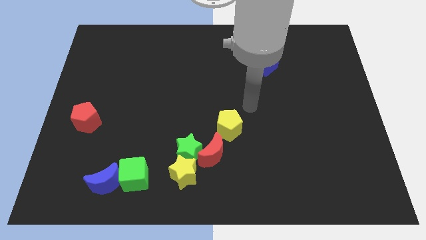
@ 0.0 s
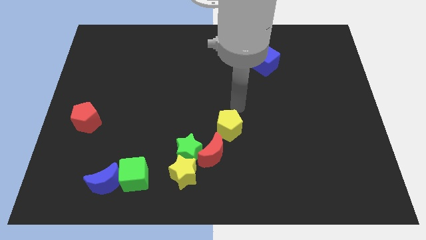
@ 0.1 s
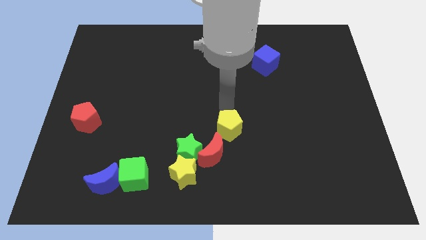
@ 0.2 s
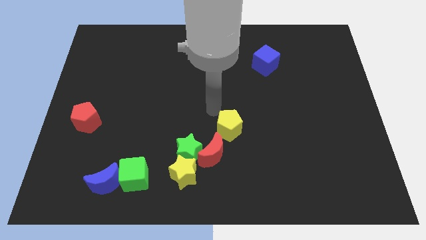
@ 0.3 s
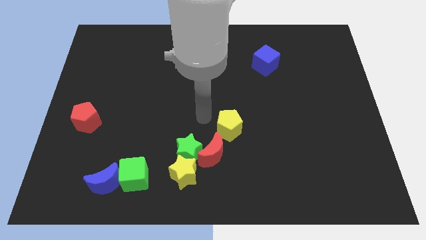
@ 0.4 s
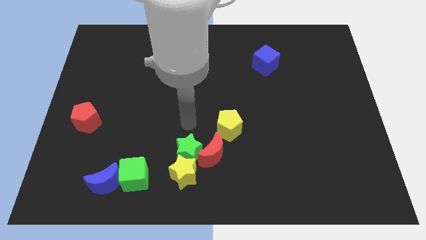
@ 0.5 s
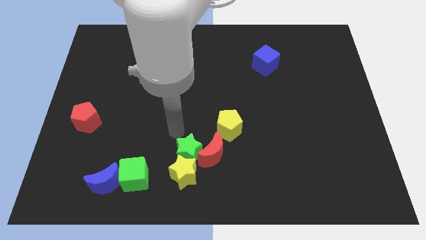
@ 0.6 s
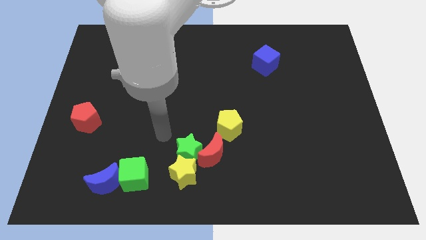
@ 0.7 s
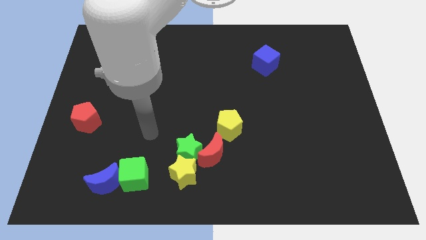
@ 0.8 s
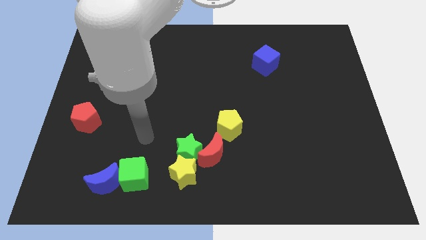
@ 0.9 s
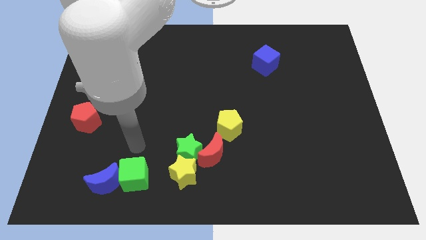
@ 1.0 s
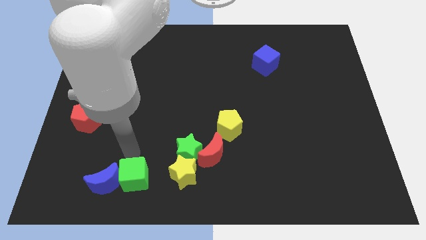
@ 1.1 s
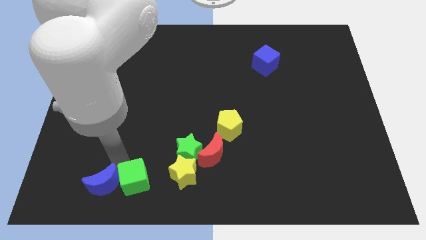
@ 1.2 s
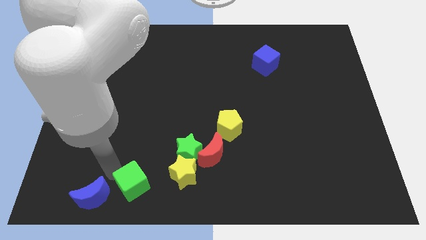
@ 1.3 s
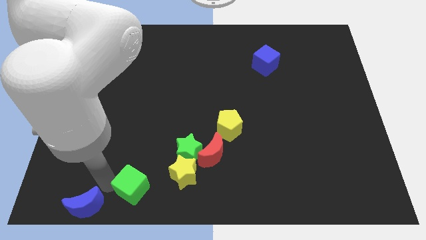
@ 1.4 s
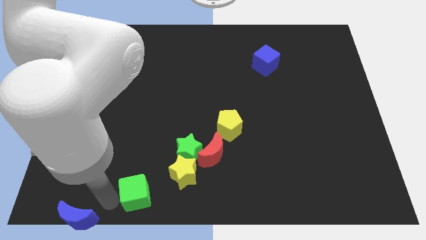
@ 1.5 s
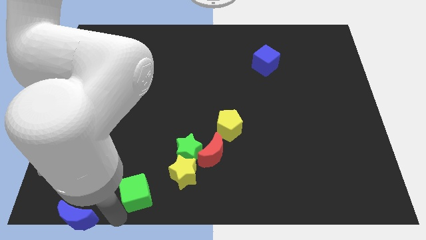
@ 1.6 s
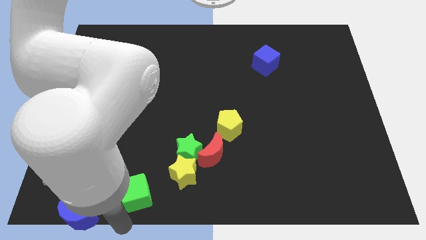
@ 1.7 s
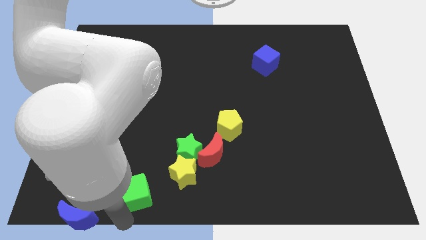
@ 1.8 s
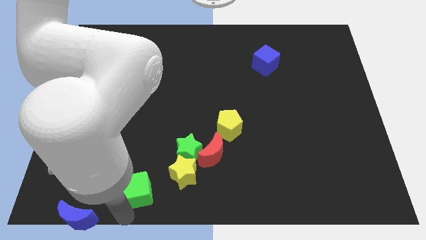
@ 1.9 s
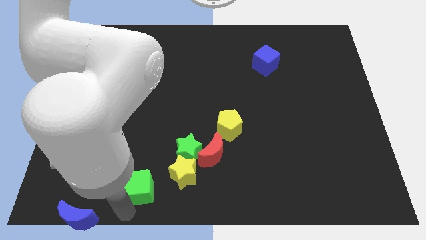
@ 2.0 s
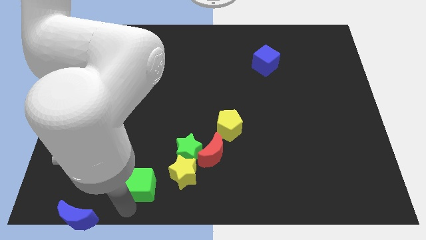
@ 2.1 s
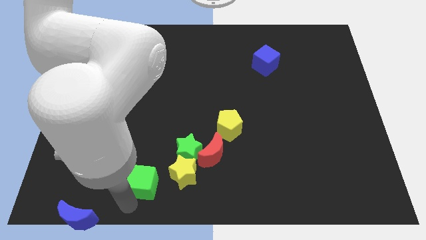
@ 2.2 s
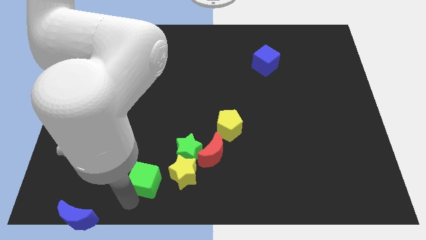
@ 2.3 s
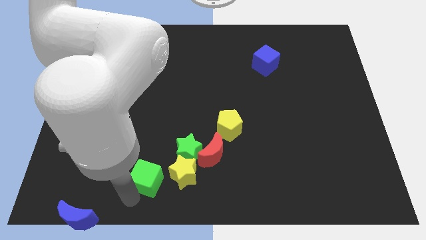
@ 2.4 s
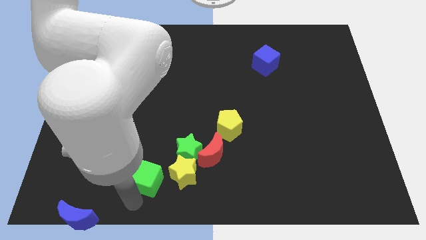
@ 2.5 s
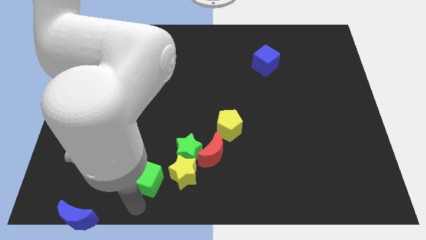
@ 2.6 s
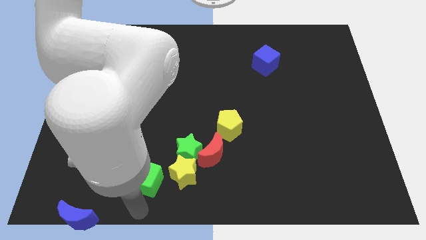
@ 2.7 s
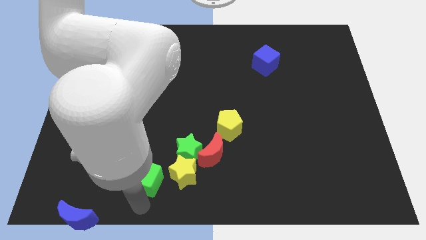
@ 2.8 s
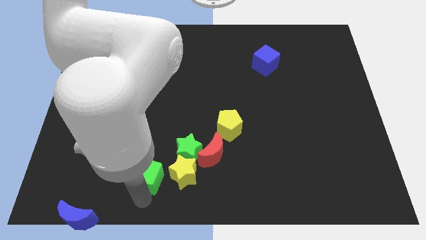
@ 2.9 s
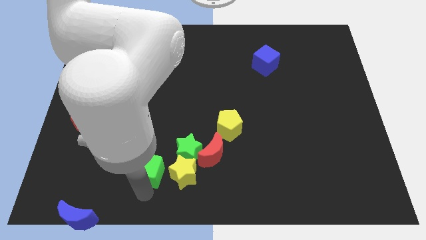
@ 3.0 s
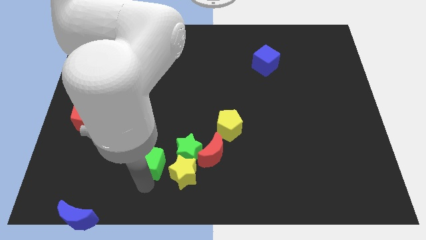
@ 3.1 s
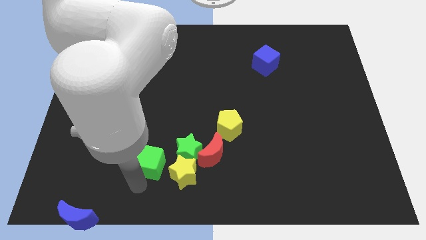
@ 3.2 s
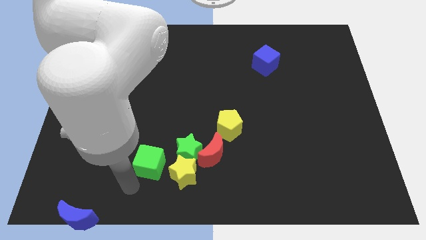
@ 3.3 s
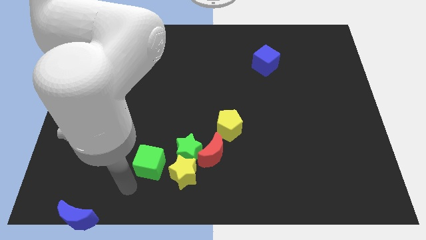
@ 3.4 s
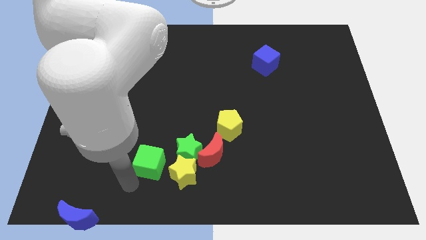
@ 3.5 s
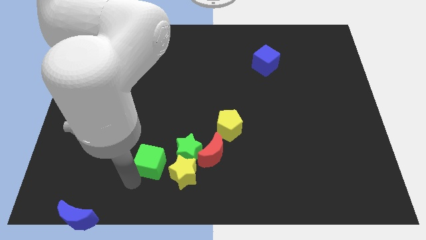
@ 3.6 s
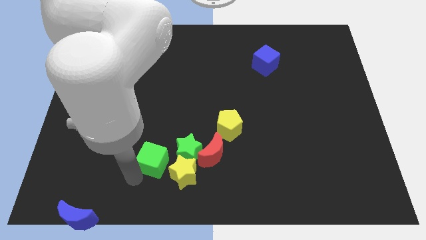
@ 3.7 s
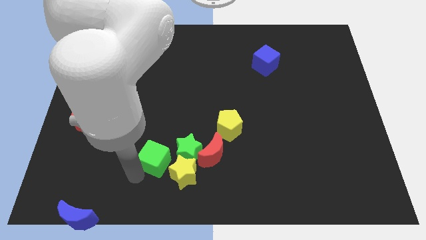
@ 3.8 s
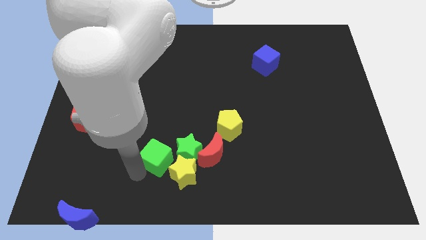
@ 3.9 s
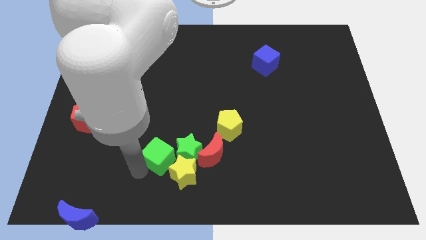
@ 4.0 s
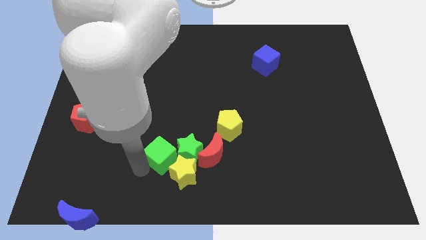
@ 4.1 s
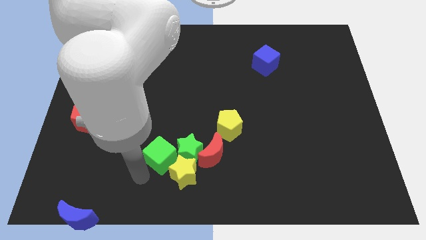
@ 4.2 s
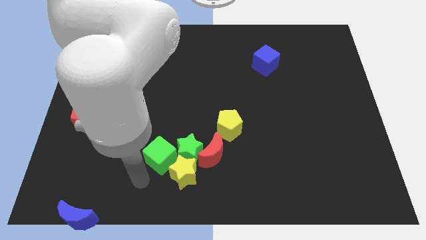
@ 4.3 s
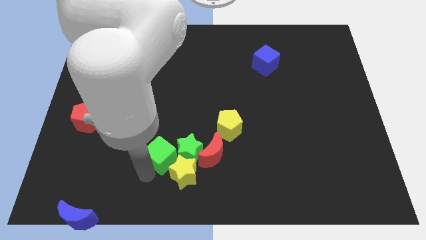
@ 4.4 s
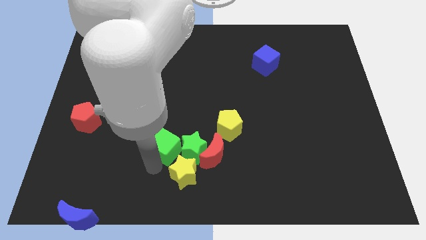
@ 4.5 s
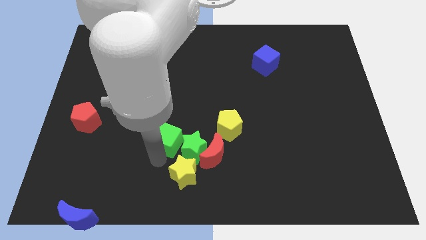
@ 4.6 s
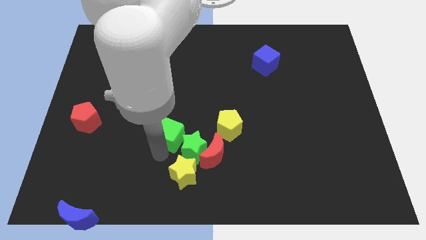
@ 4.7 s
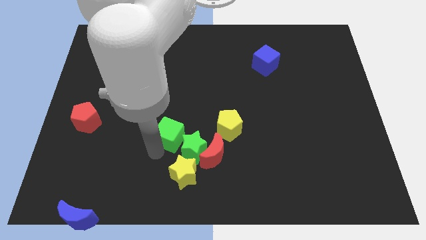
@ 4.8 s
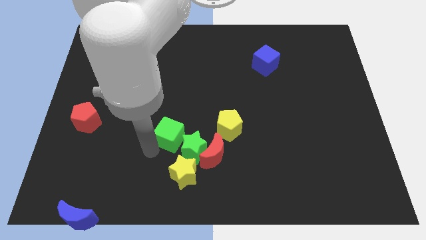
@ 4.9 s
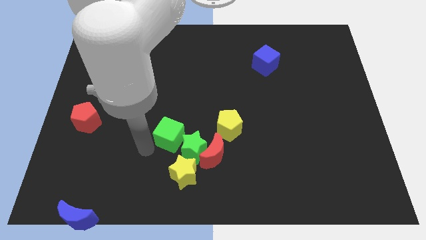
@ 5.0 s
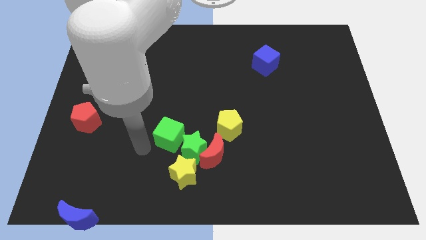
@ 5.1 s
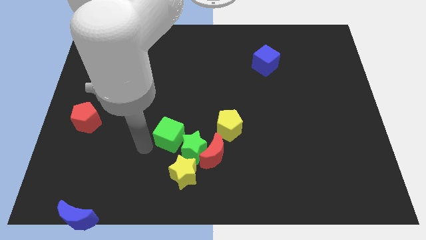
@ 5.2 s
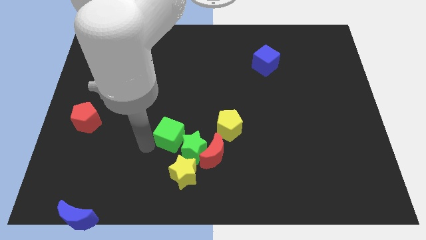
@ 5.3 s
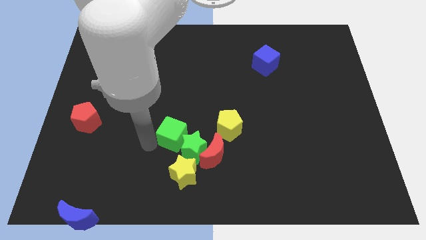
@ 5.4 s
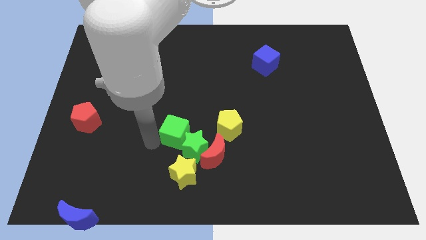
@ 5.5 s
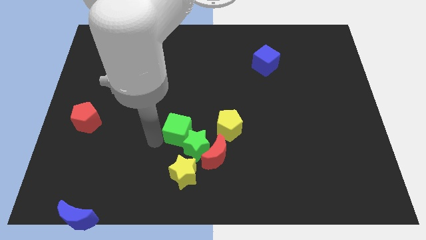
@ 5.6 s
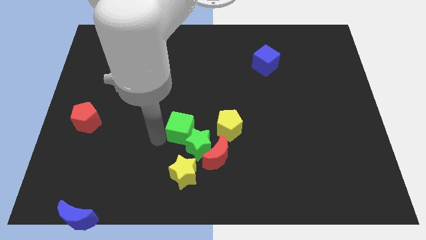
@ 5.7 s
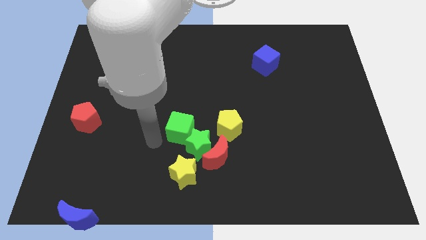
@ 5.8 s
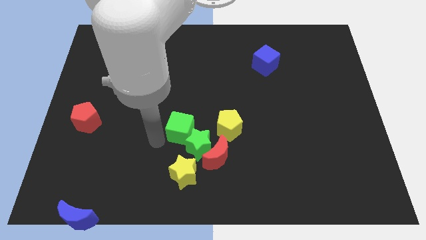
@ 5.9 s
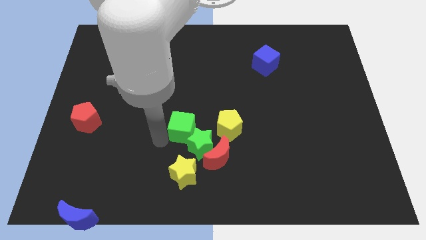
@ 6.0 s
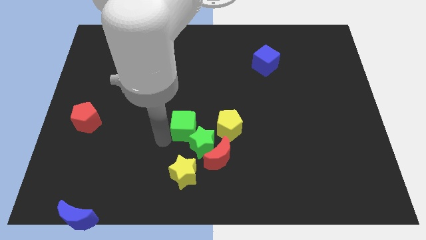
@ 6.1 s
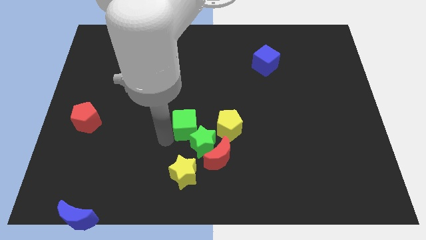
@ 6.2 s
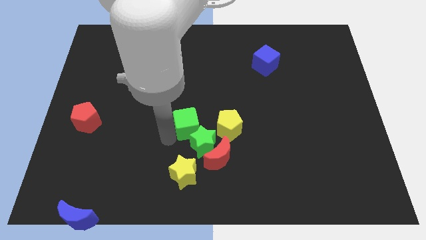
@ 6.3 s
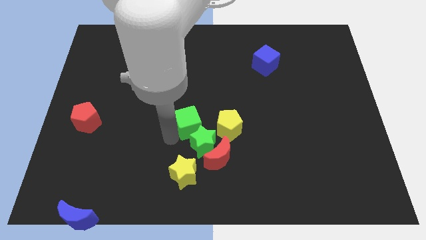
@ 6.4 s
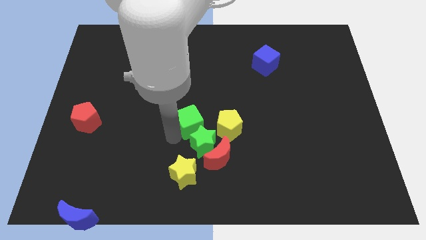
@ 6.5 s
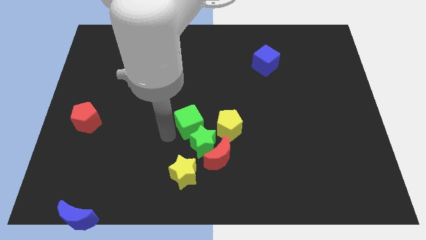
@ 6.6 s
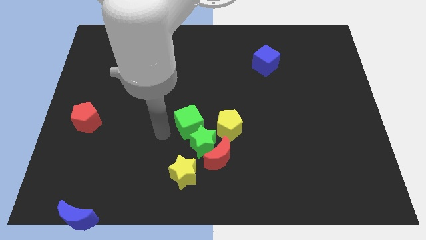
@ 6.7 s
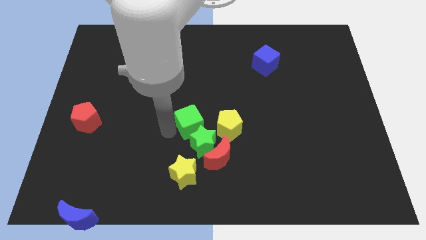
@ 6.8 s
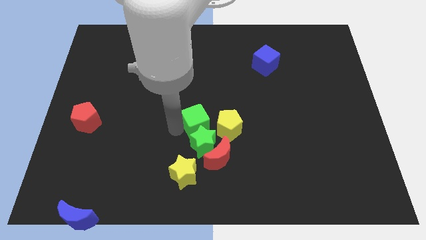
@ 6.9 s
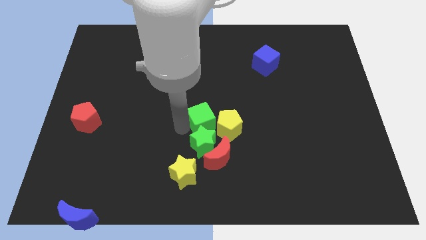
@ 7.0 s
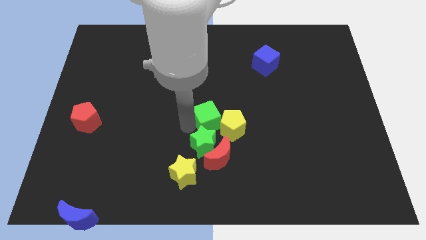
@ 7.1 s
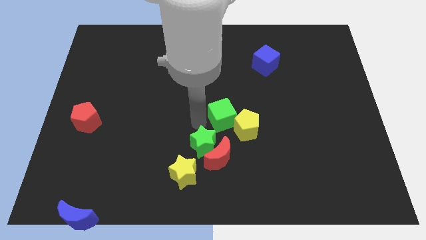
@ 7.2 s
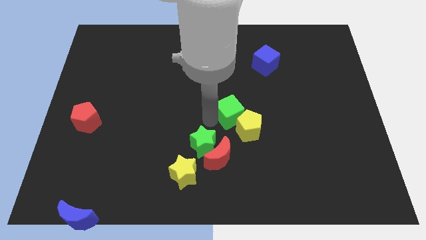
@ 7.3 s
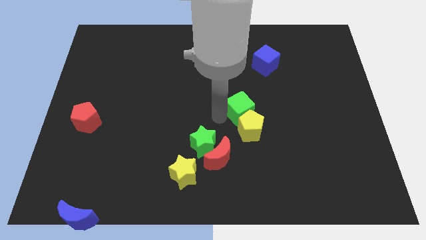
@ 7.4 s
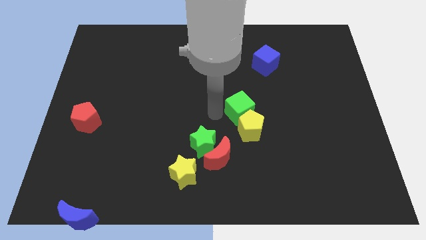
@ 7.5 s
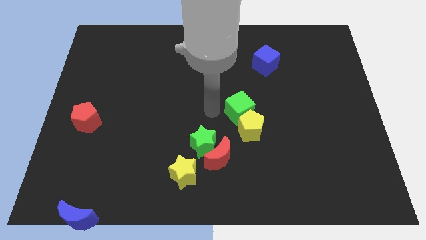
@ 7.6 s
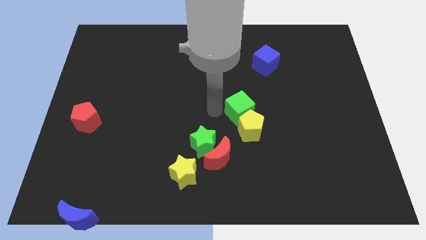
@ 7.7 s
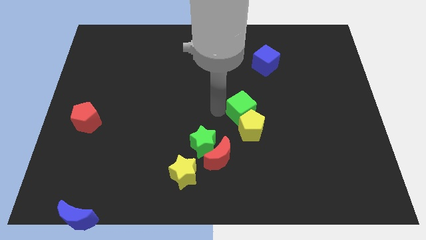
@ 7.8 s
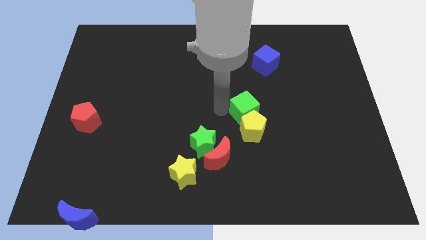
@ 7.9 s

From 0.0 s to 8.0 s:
slide the green cube diagonally up and to the right of the yellow pentagon
